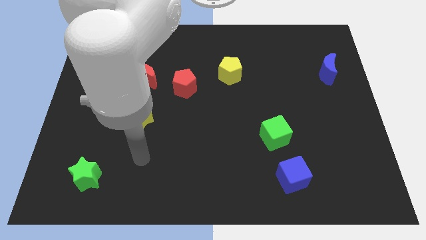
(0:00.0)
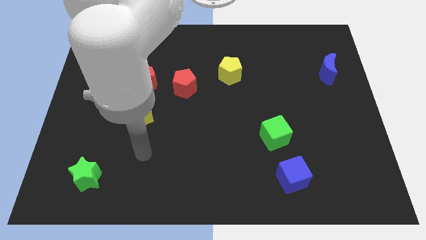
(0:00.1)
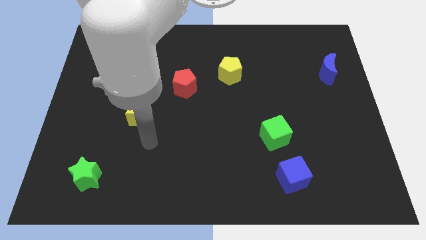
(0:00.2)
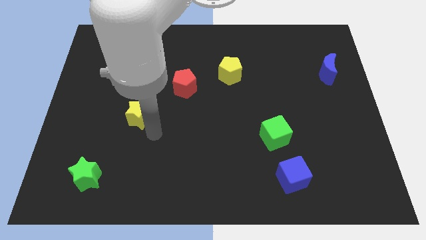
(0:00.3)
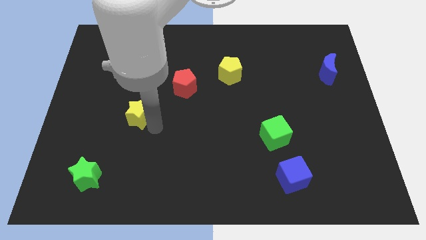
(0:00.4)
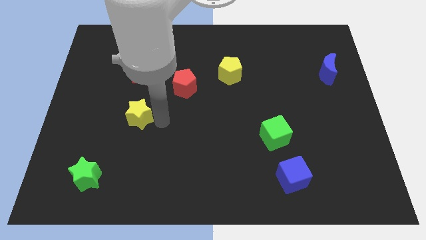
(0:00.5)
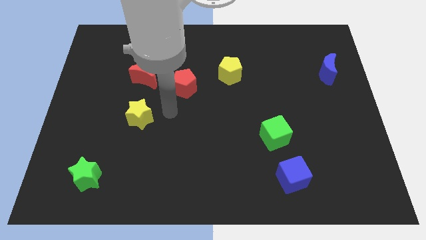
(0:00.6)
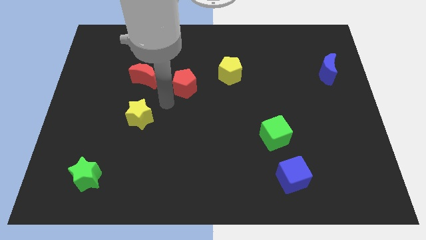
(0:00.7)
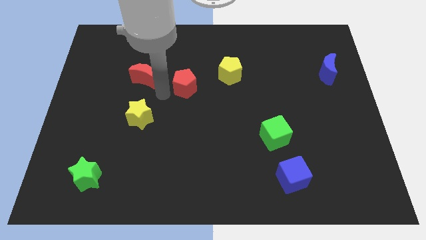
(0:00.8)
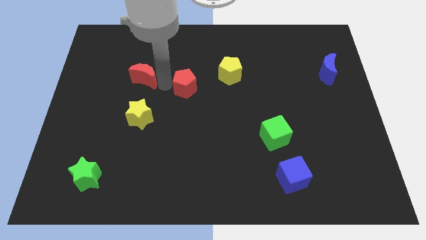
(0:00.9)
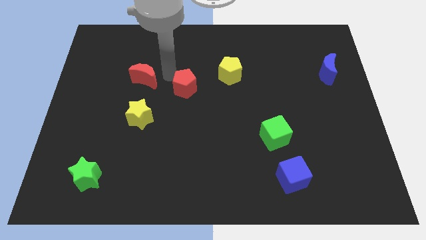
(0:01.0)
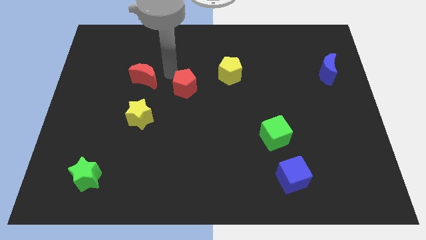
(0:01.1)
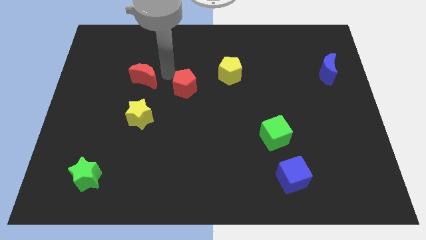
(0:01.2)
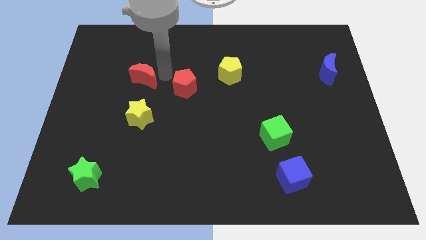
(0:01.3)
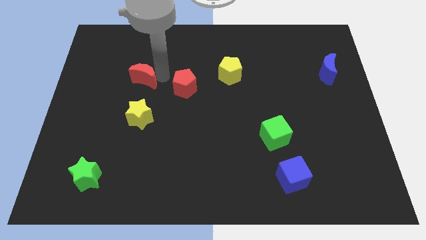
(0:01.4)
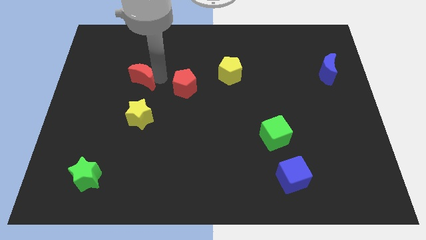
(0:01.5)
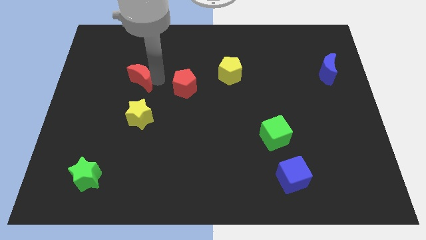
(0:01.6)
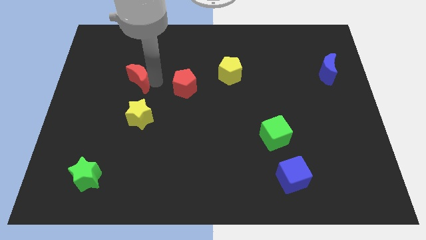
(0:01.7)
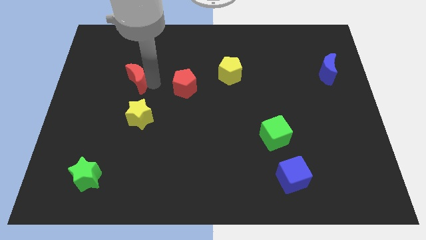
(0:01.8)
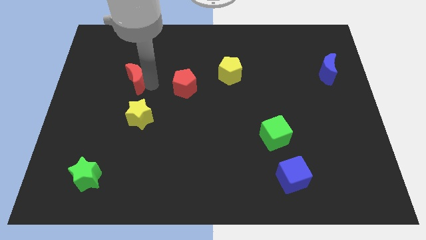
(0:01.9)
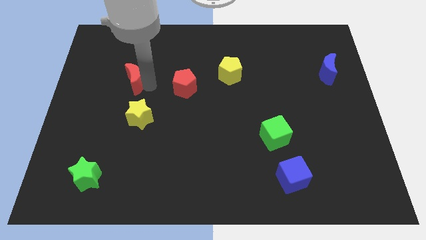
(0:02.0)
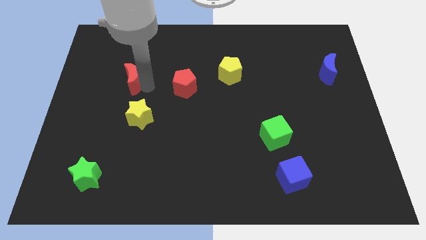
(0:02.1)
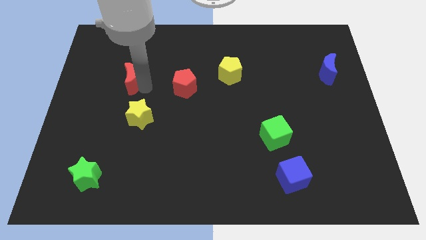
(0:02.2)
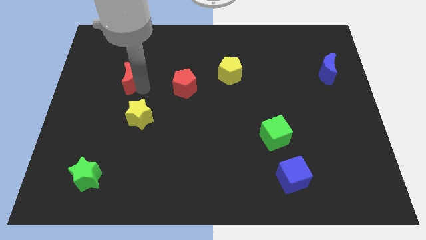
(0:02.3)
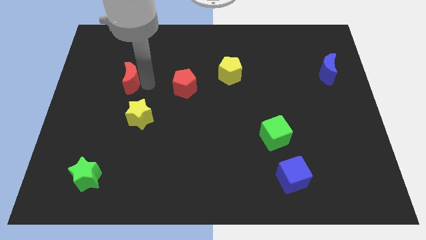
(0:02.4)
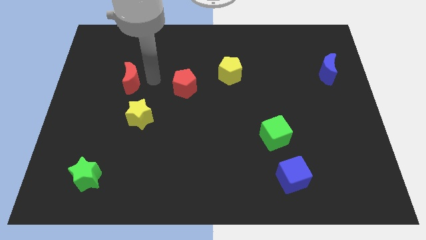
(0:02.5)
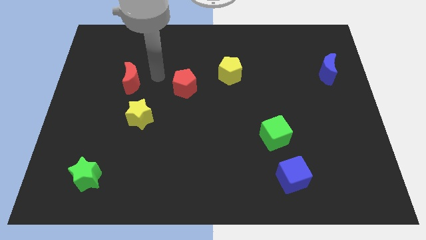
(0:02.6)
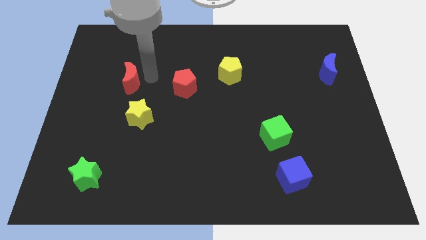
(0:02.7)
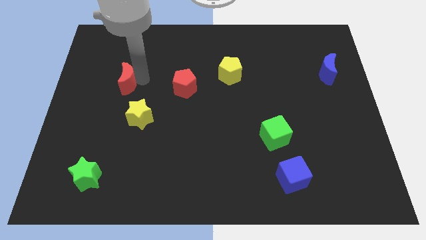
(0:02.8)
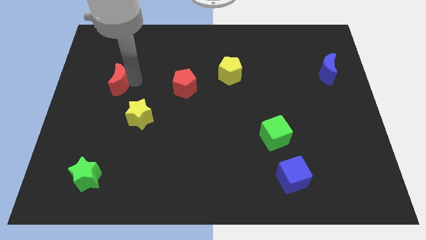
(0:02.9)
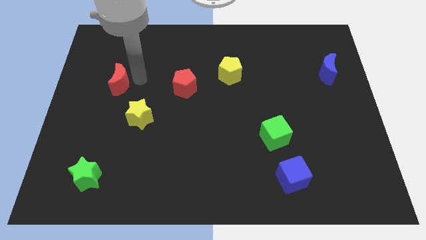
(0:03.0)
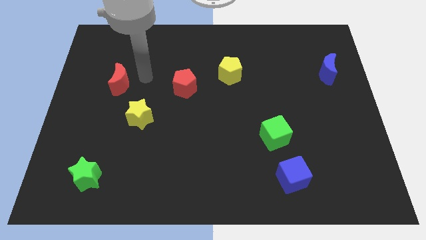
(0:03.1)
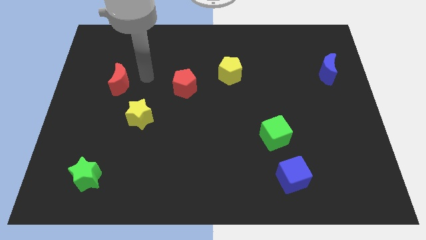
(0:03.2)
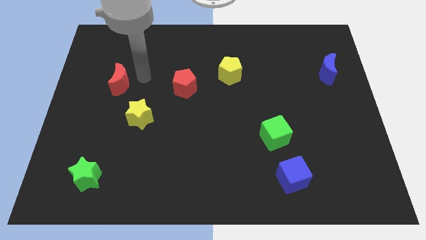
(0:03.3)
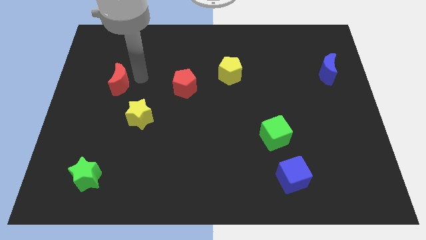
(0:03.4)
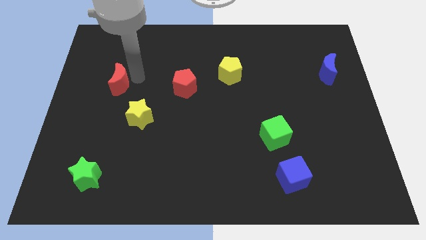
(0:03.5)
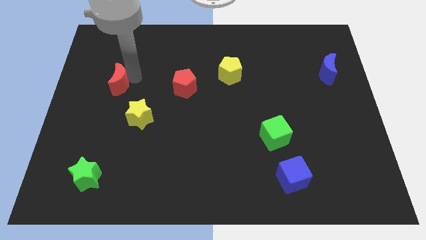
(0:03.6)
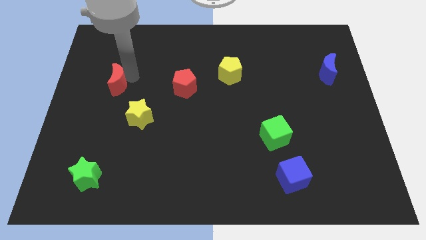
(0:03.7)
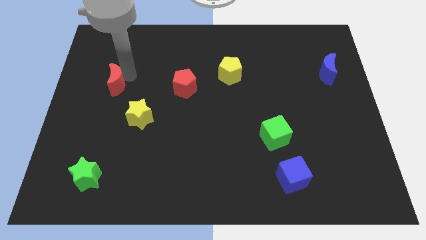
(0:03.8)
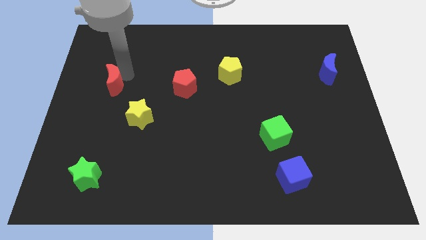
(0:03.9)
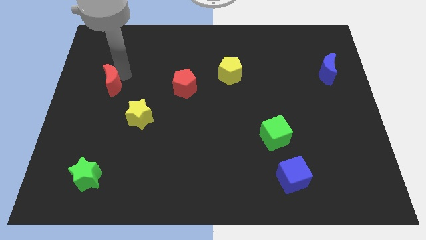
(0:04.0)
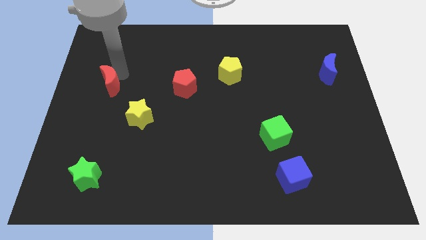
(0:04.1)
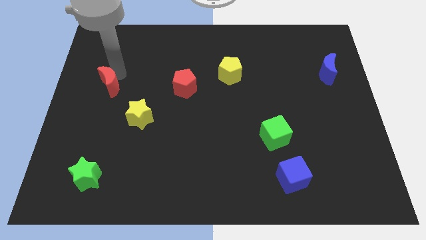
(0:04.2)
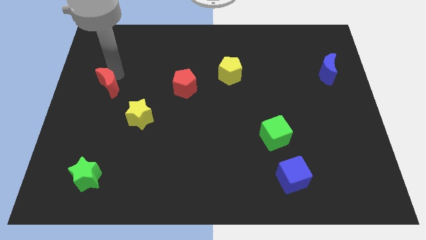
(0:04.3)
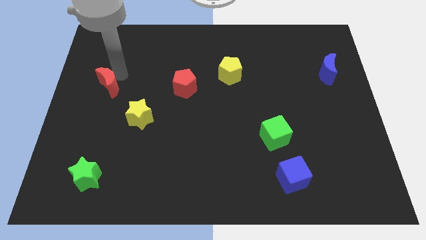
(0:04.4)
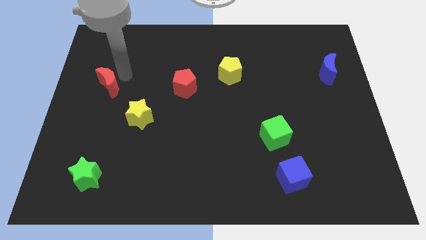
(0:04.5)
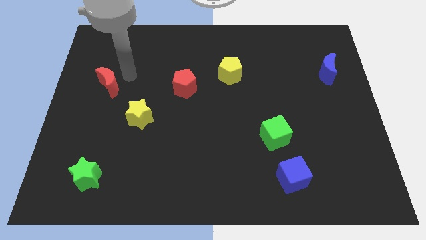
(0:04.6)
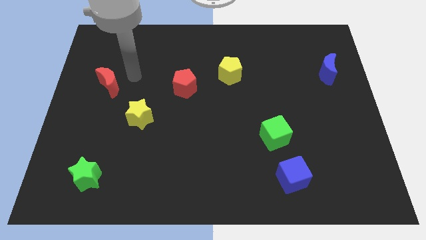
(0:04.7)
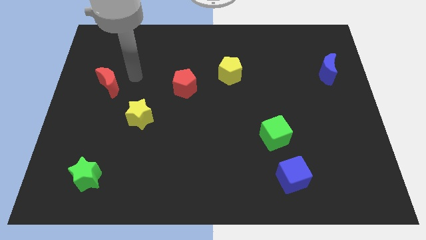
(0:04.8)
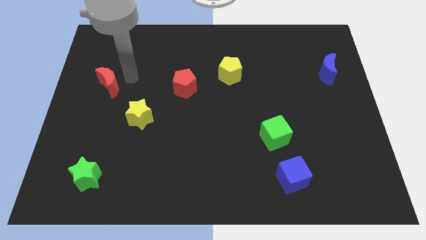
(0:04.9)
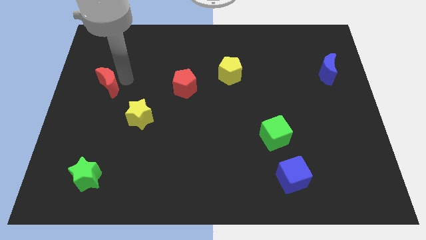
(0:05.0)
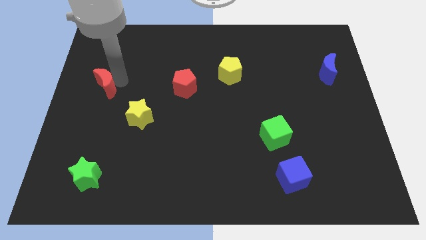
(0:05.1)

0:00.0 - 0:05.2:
push the red moon to the center left

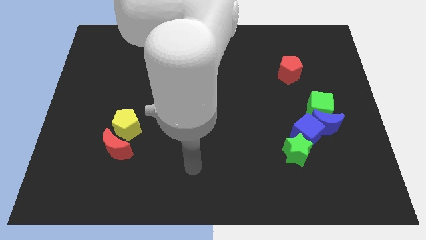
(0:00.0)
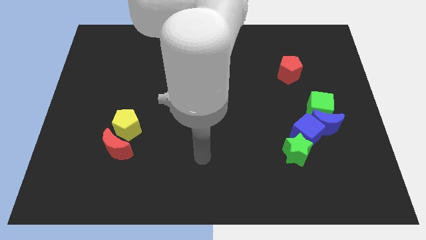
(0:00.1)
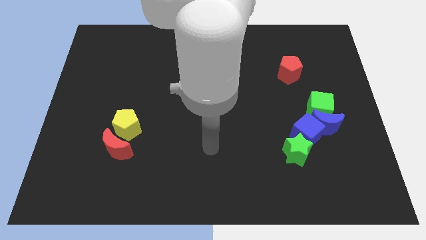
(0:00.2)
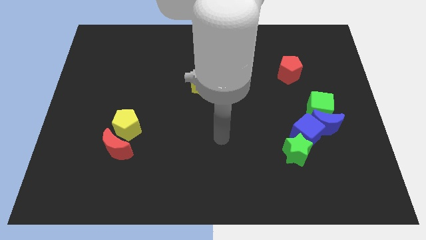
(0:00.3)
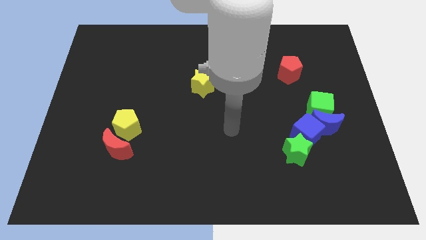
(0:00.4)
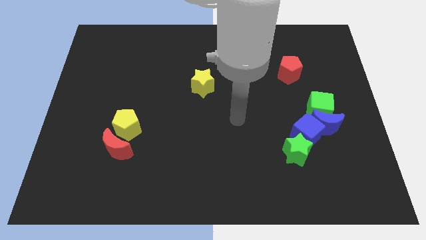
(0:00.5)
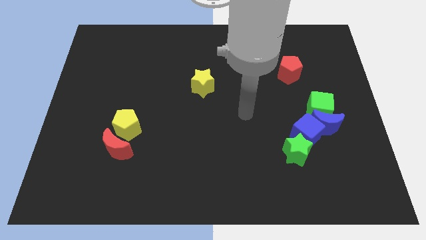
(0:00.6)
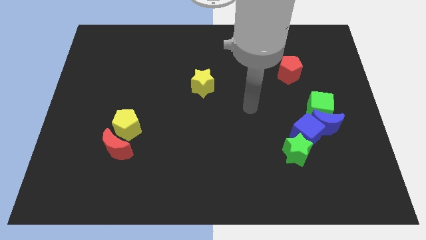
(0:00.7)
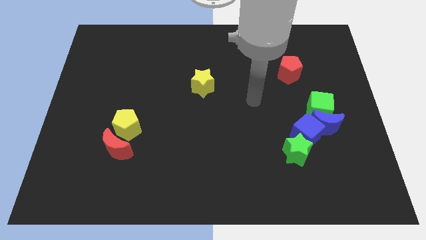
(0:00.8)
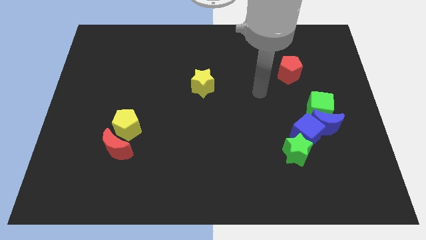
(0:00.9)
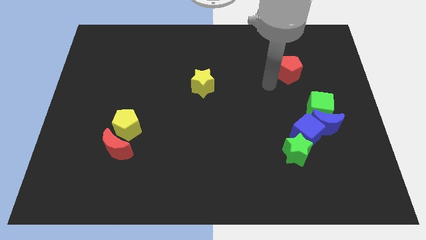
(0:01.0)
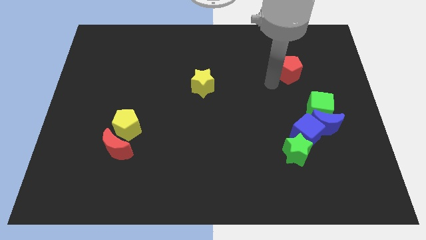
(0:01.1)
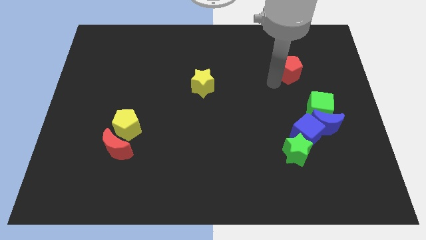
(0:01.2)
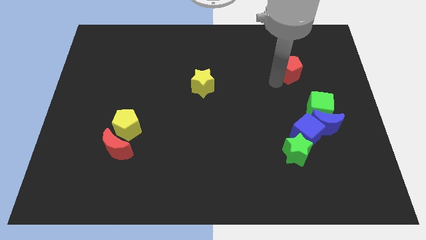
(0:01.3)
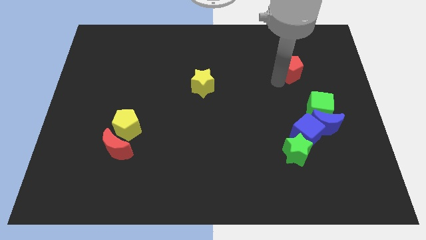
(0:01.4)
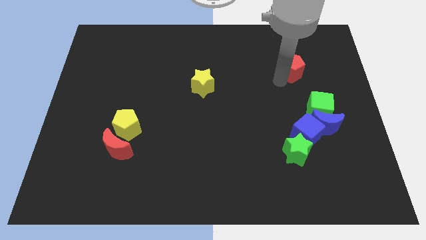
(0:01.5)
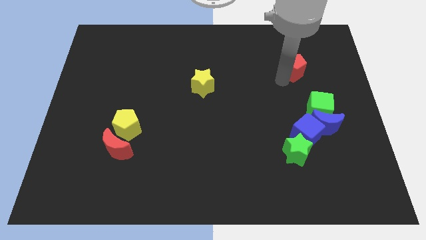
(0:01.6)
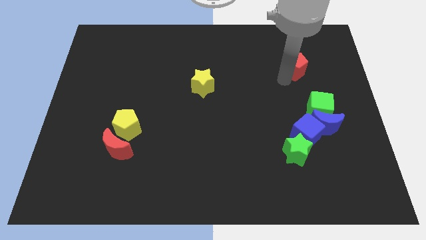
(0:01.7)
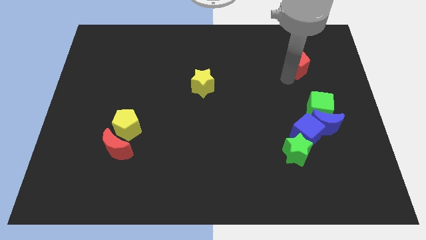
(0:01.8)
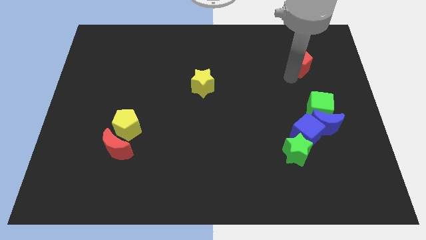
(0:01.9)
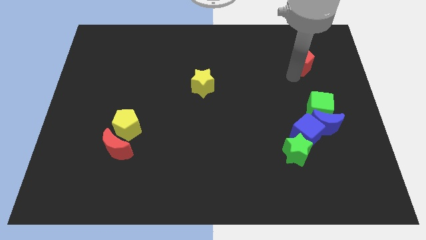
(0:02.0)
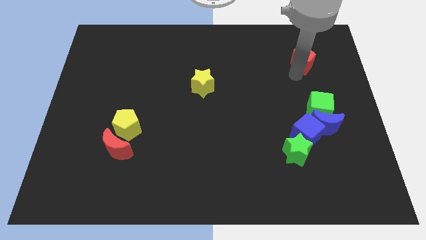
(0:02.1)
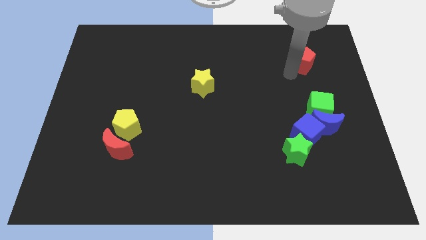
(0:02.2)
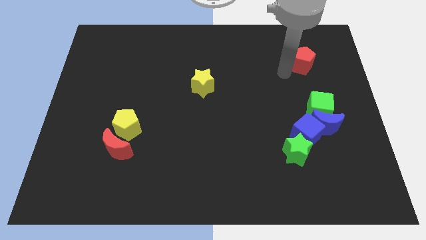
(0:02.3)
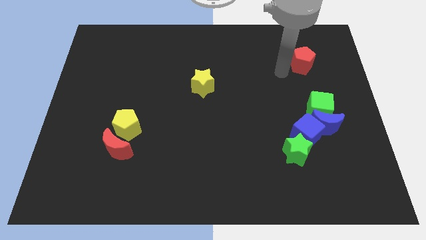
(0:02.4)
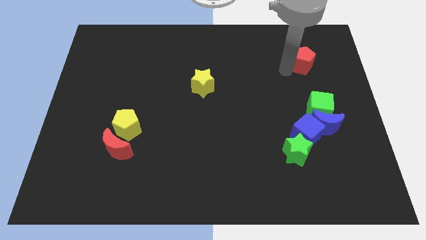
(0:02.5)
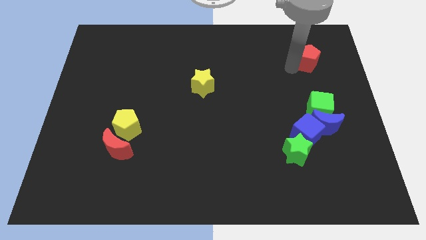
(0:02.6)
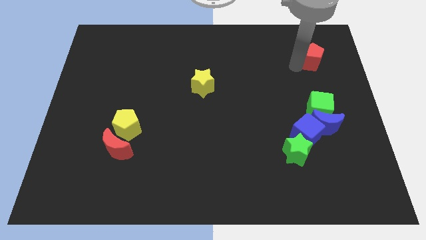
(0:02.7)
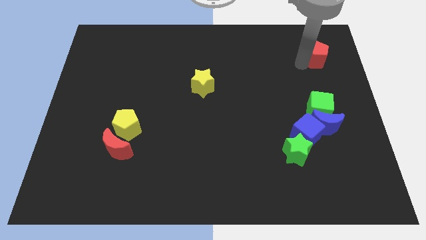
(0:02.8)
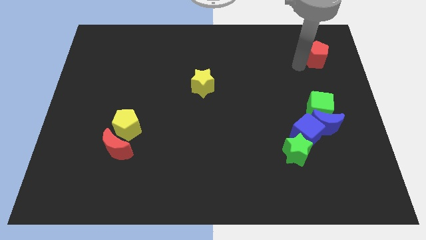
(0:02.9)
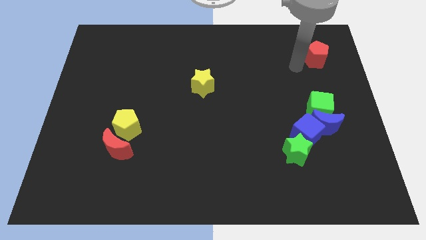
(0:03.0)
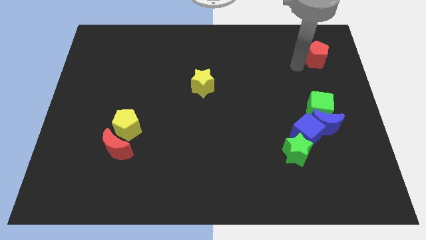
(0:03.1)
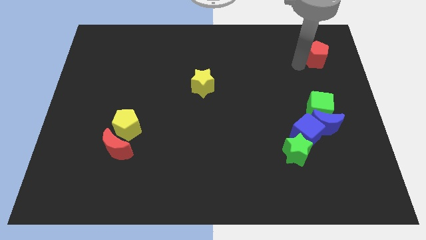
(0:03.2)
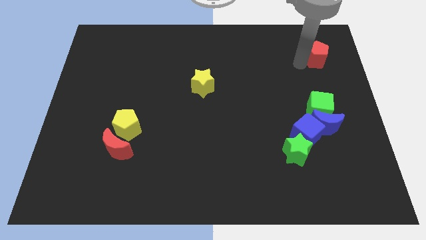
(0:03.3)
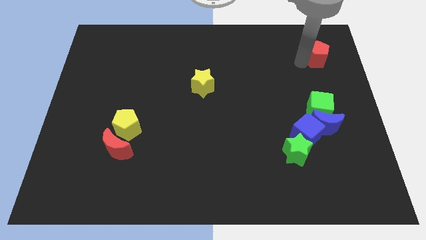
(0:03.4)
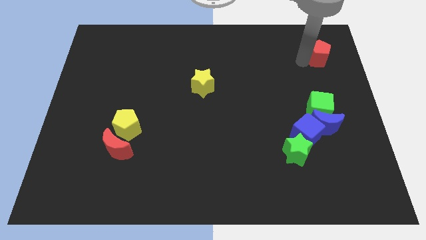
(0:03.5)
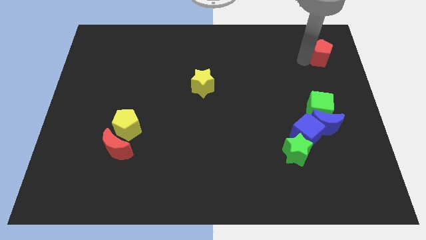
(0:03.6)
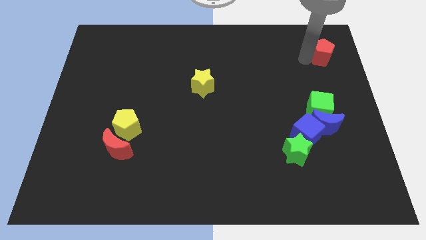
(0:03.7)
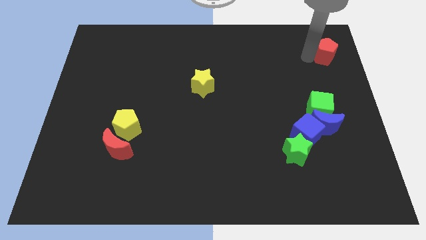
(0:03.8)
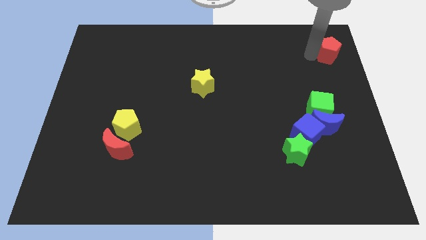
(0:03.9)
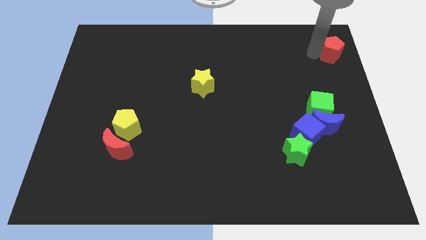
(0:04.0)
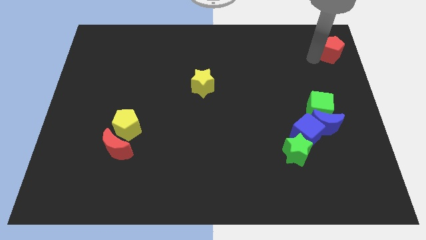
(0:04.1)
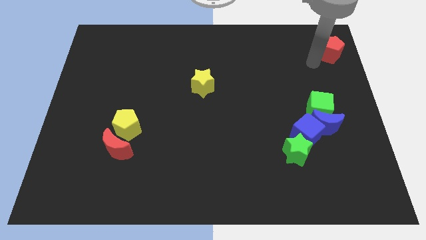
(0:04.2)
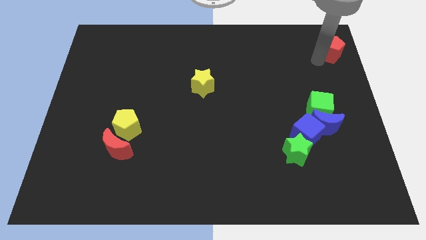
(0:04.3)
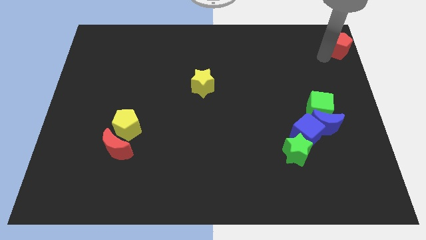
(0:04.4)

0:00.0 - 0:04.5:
push the red pentagon to the top right
